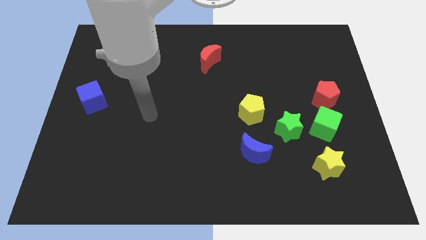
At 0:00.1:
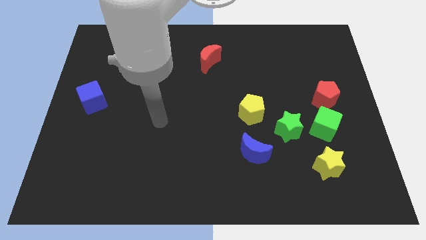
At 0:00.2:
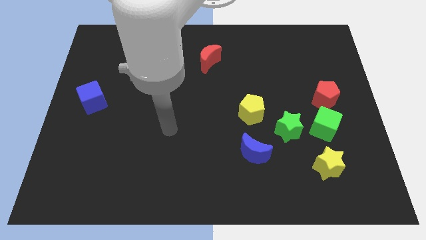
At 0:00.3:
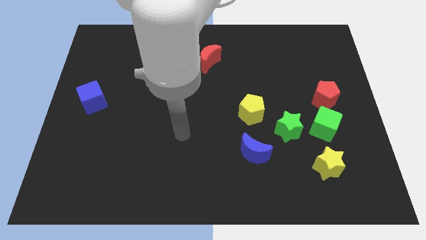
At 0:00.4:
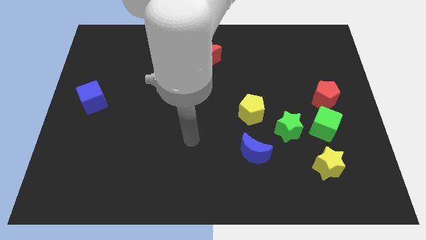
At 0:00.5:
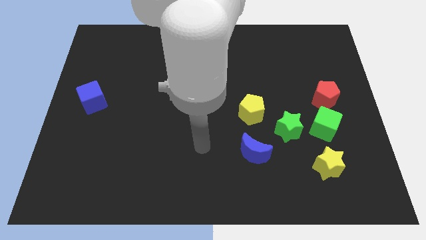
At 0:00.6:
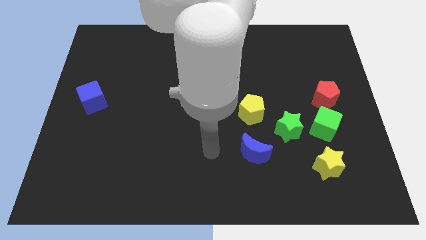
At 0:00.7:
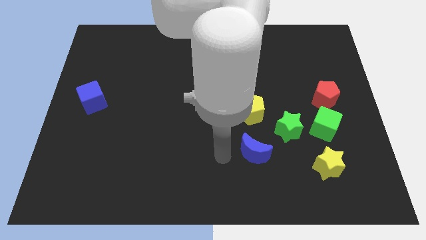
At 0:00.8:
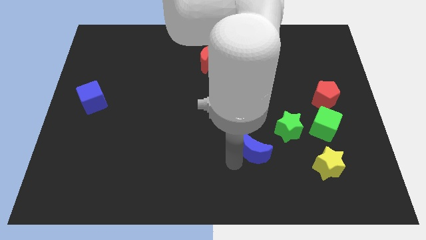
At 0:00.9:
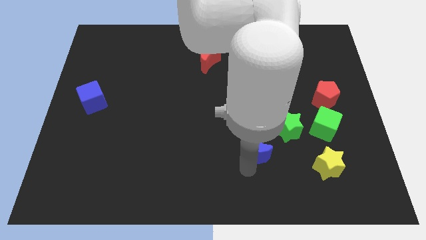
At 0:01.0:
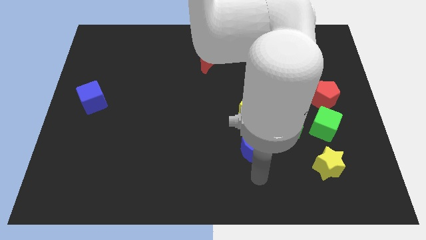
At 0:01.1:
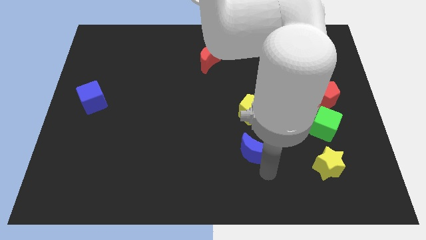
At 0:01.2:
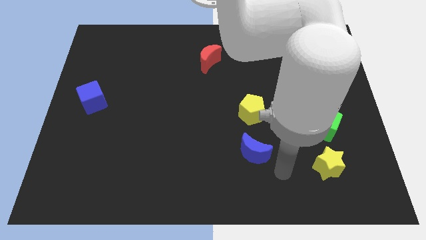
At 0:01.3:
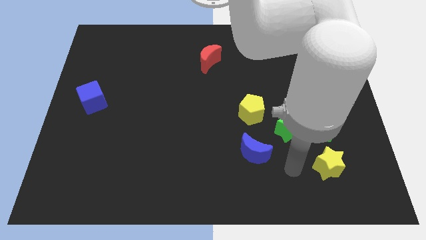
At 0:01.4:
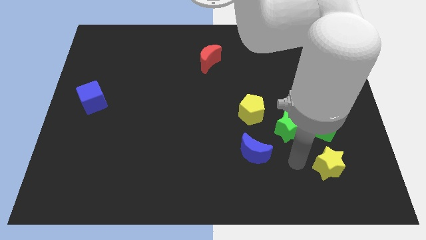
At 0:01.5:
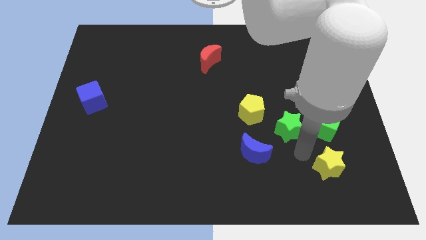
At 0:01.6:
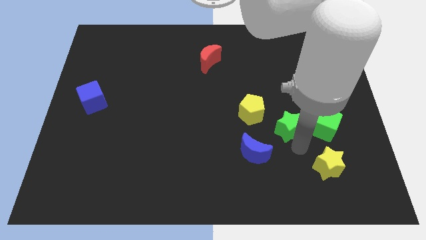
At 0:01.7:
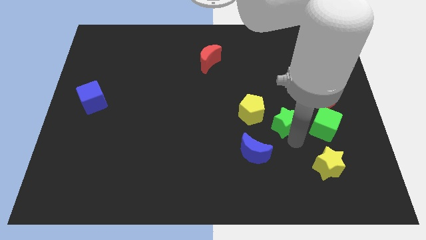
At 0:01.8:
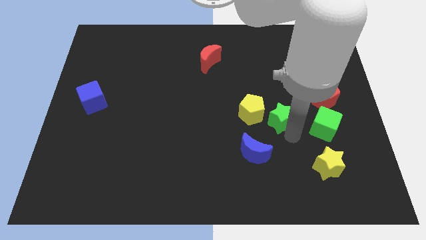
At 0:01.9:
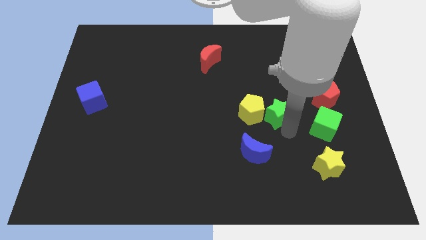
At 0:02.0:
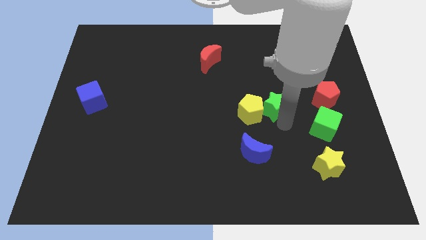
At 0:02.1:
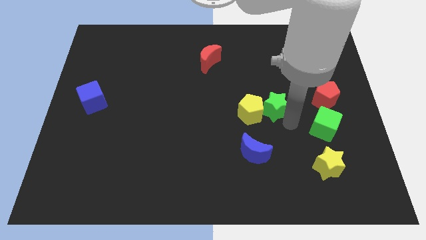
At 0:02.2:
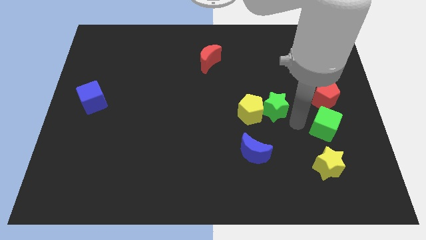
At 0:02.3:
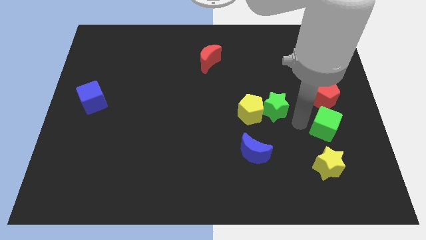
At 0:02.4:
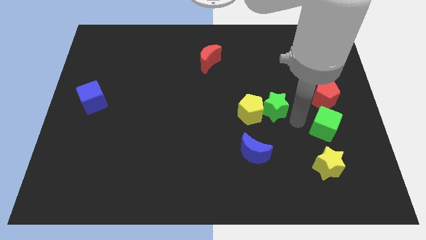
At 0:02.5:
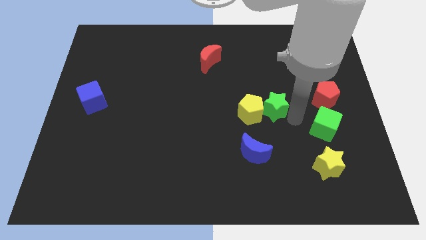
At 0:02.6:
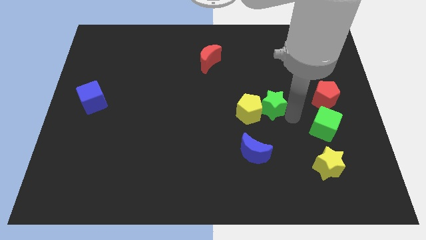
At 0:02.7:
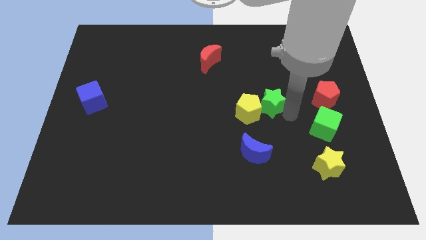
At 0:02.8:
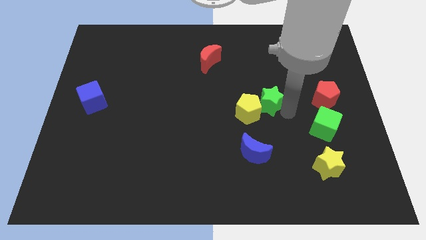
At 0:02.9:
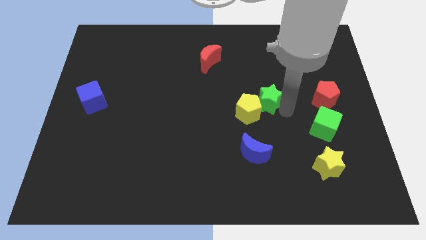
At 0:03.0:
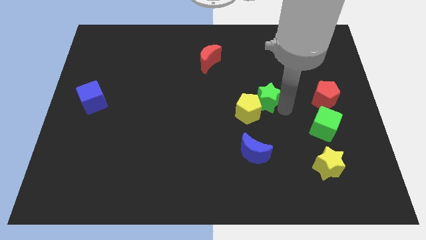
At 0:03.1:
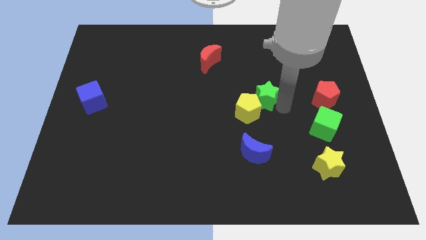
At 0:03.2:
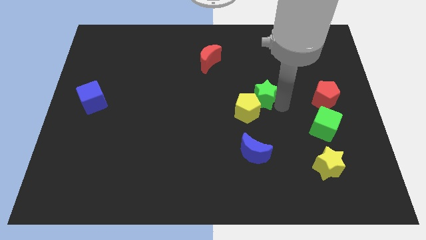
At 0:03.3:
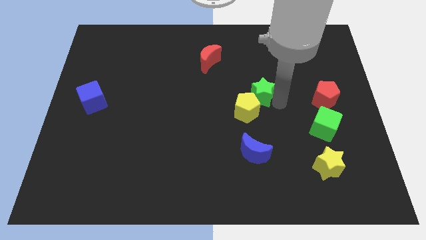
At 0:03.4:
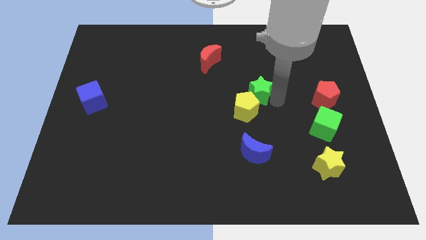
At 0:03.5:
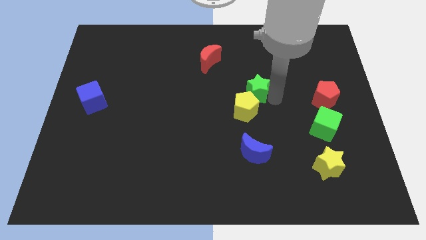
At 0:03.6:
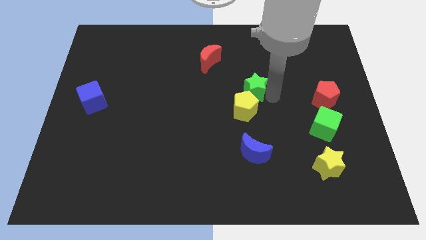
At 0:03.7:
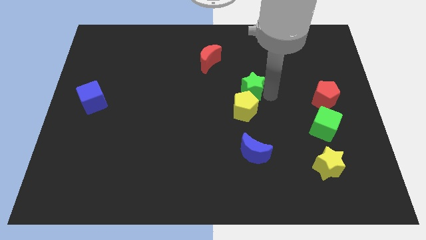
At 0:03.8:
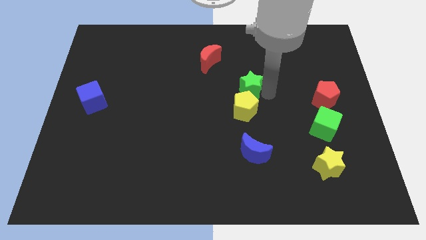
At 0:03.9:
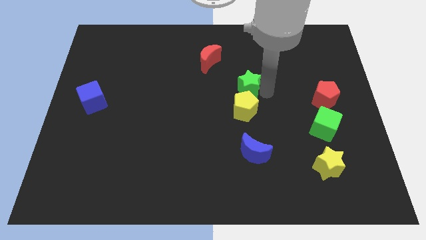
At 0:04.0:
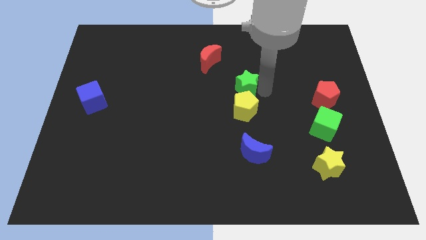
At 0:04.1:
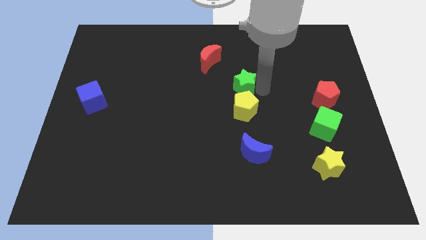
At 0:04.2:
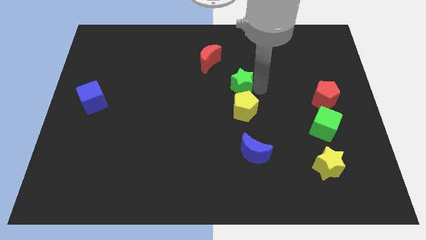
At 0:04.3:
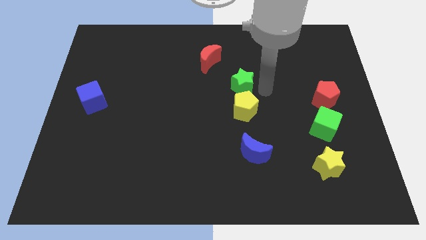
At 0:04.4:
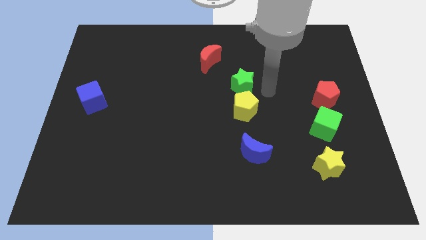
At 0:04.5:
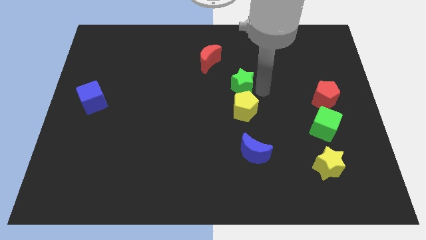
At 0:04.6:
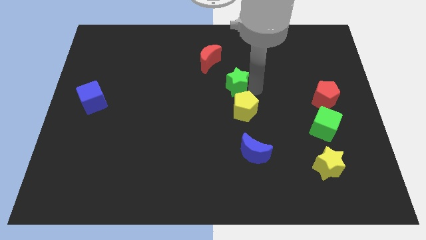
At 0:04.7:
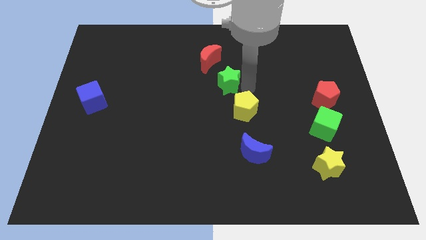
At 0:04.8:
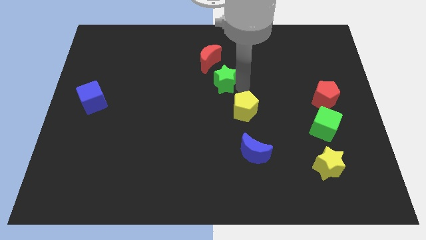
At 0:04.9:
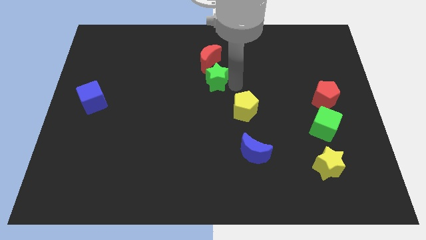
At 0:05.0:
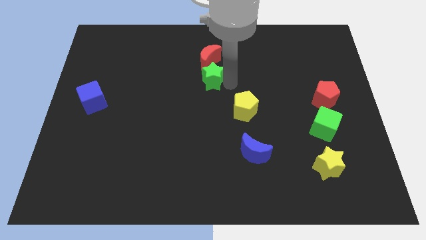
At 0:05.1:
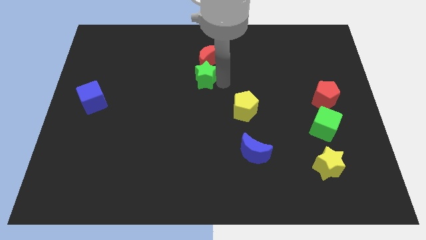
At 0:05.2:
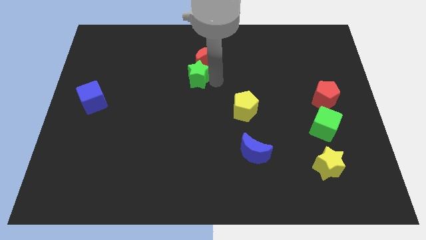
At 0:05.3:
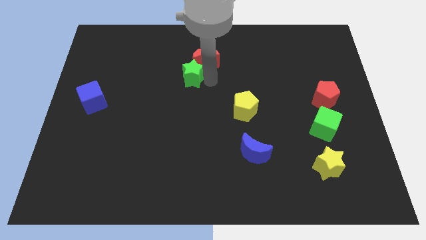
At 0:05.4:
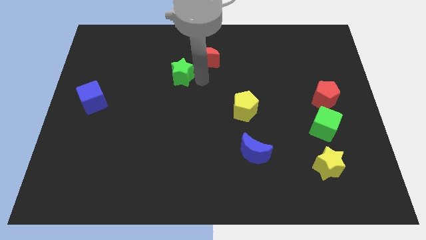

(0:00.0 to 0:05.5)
put the green star just left of the red moon

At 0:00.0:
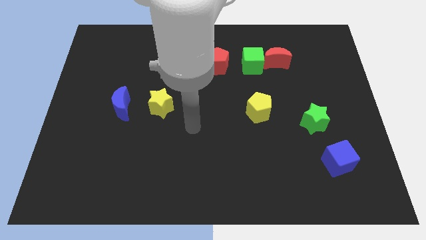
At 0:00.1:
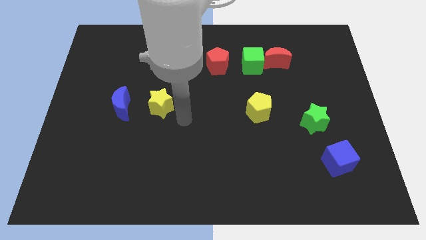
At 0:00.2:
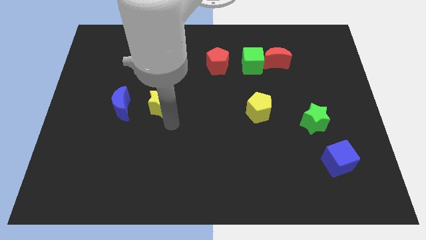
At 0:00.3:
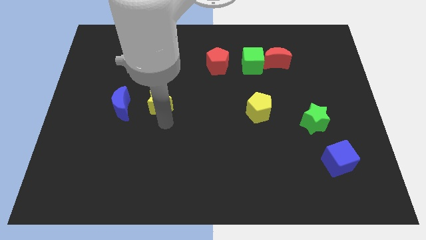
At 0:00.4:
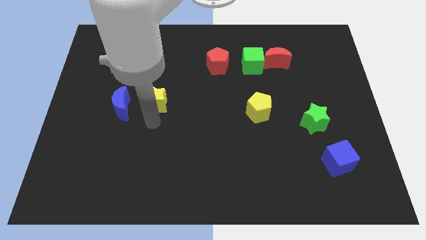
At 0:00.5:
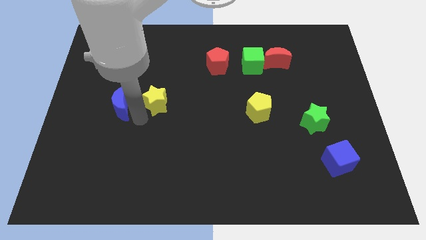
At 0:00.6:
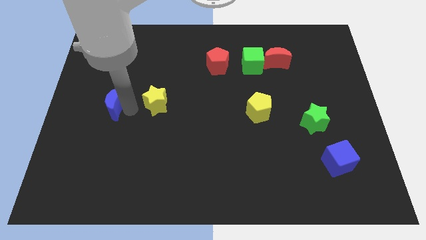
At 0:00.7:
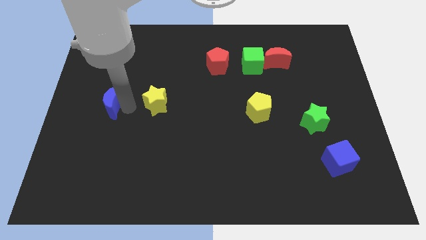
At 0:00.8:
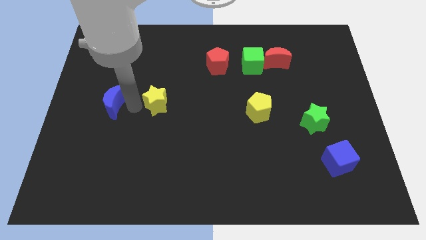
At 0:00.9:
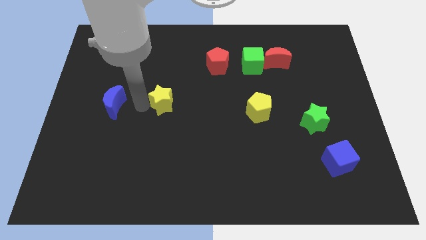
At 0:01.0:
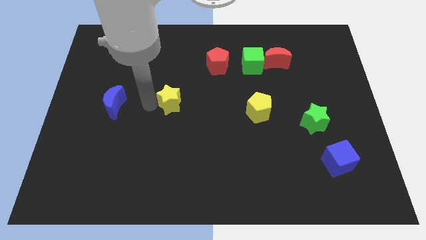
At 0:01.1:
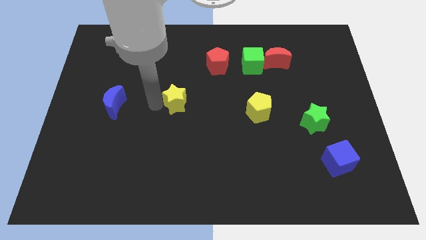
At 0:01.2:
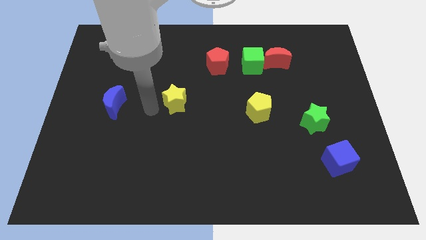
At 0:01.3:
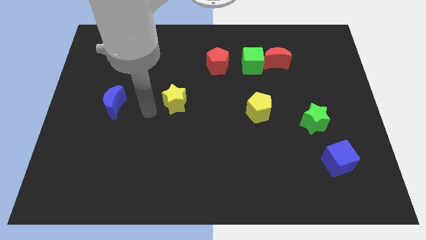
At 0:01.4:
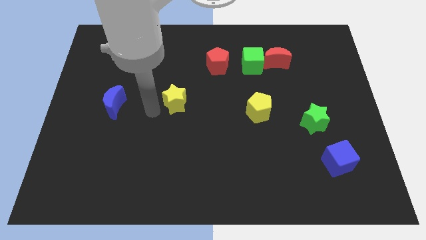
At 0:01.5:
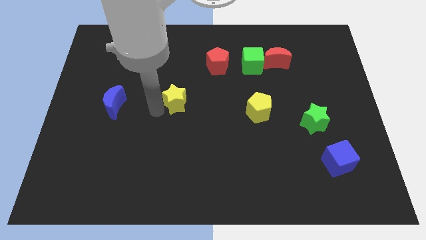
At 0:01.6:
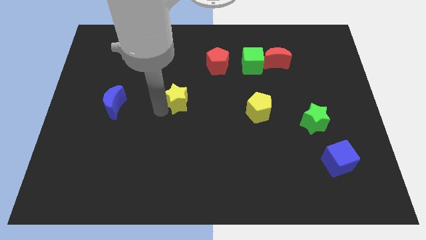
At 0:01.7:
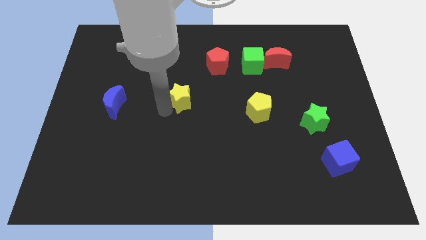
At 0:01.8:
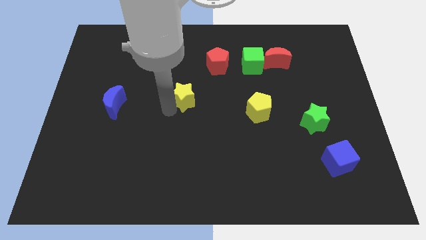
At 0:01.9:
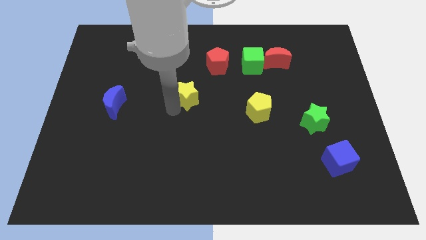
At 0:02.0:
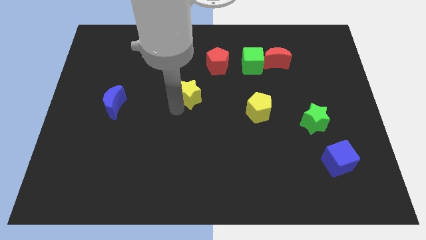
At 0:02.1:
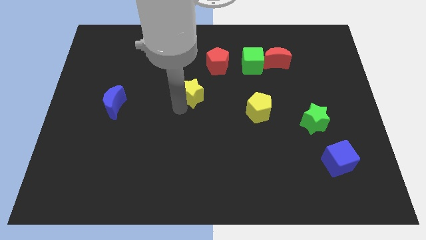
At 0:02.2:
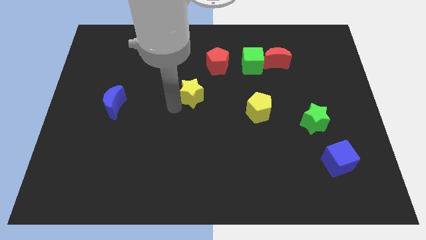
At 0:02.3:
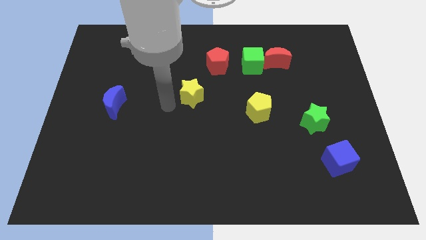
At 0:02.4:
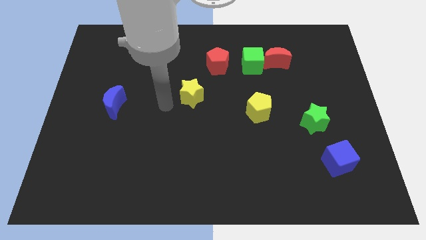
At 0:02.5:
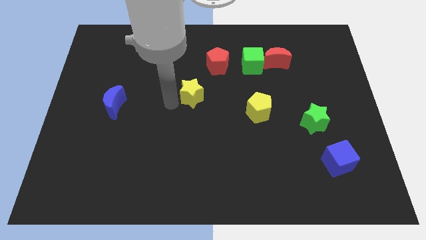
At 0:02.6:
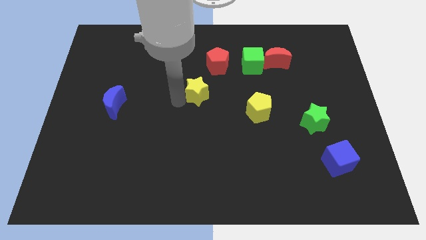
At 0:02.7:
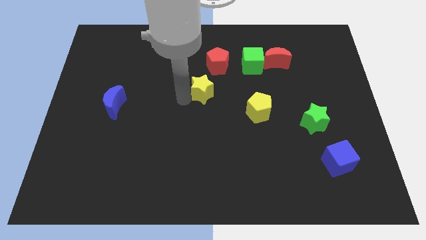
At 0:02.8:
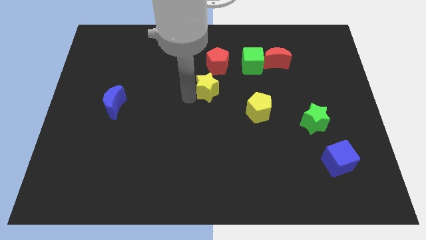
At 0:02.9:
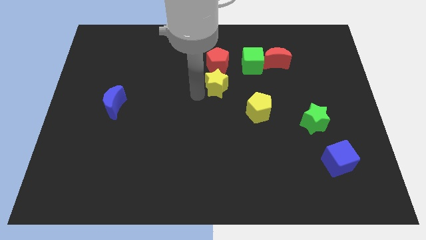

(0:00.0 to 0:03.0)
slide the yellow star to the bottom left of the green cube
